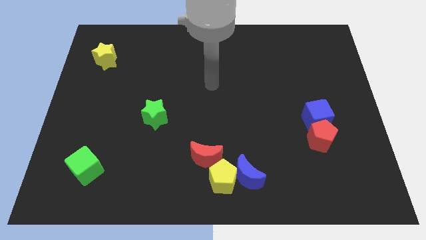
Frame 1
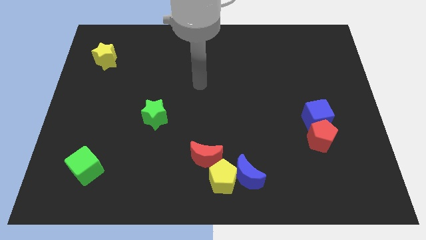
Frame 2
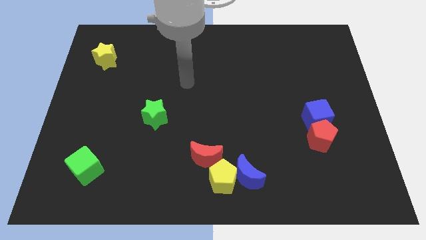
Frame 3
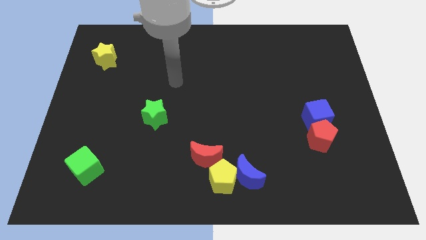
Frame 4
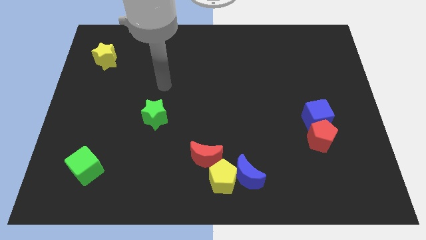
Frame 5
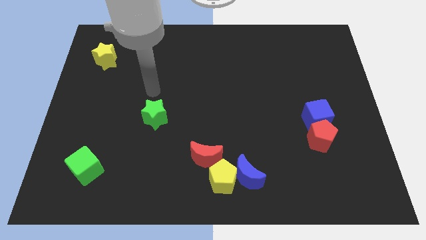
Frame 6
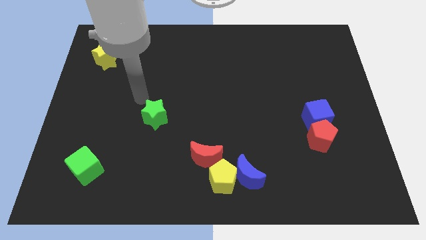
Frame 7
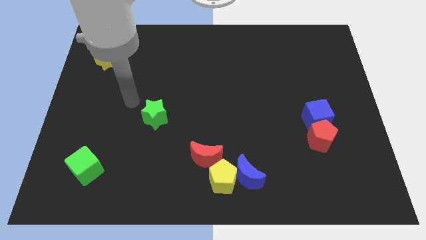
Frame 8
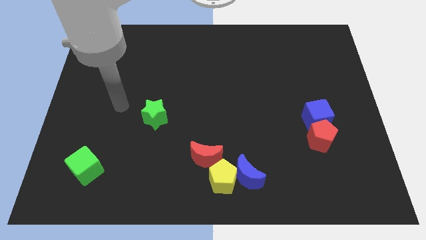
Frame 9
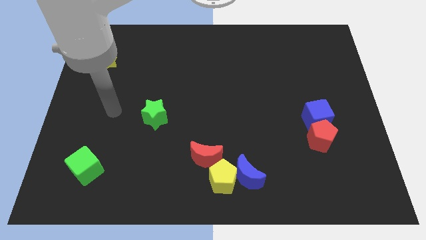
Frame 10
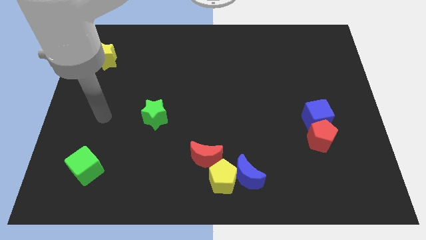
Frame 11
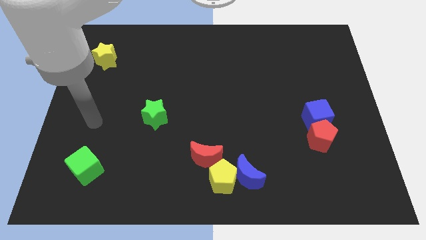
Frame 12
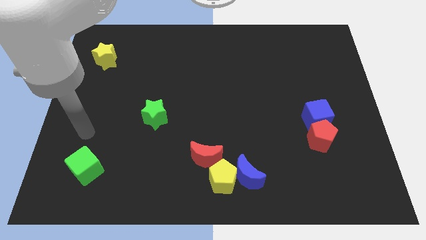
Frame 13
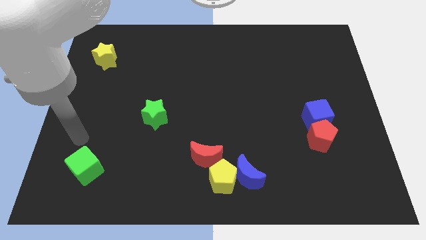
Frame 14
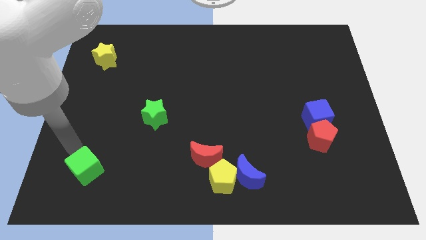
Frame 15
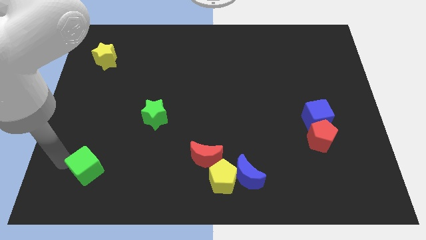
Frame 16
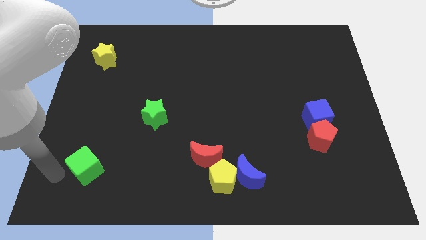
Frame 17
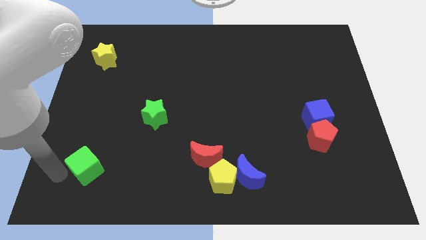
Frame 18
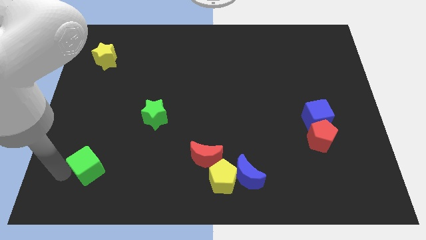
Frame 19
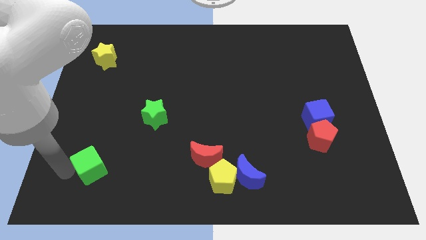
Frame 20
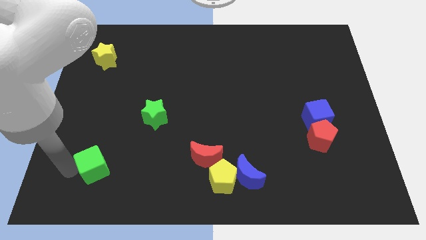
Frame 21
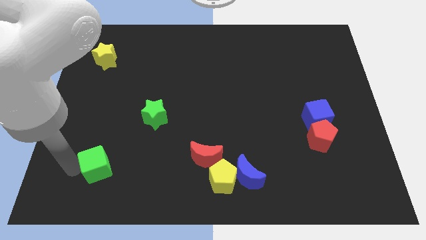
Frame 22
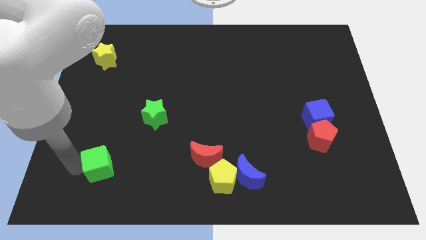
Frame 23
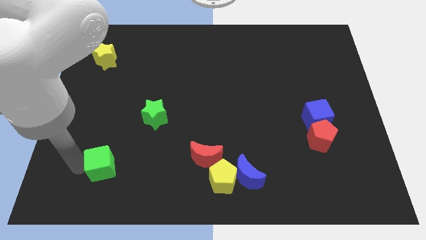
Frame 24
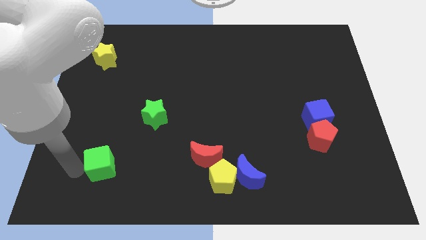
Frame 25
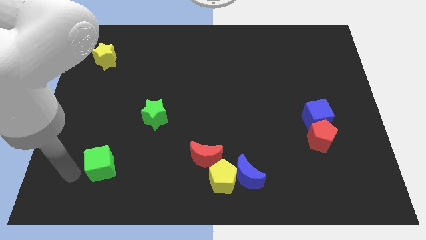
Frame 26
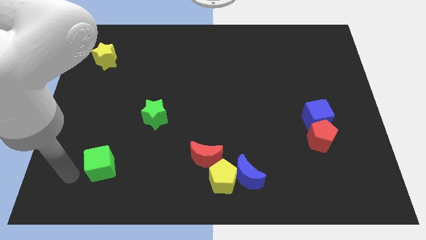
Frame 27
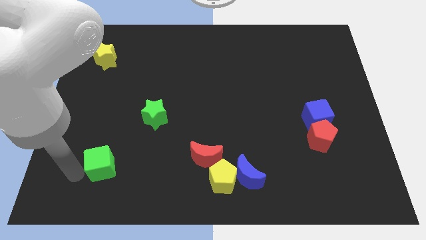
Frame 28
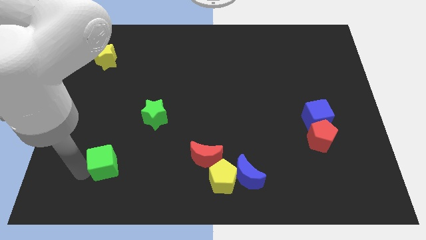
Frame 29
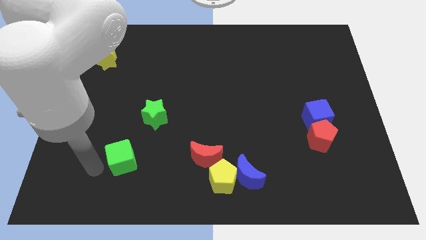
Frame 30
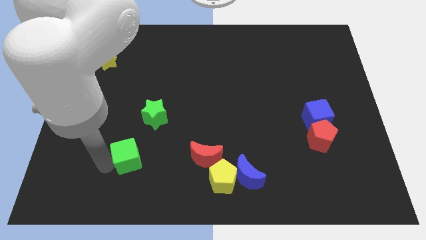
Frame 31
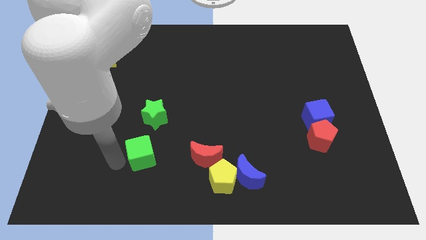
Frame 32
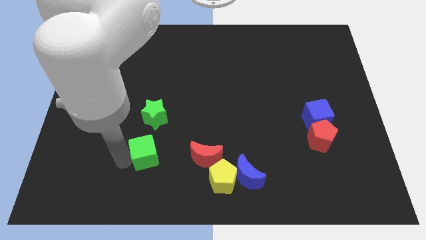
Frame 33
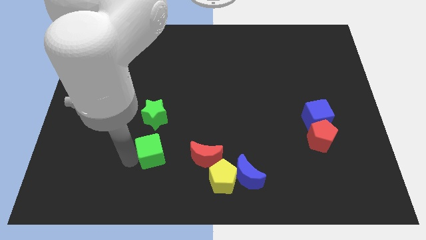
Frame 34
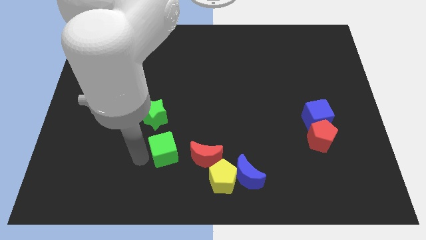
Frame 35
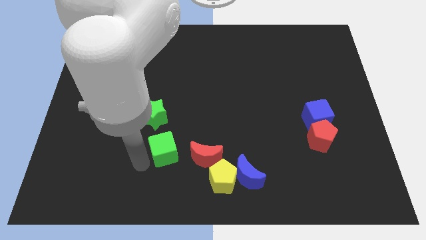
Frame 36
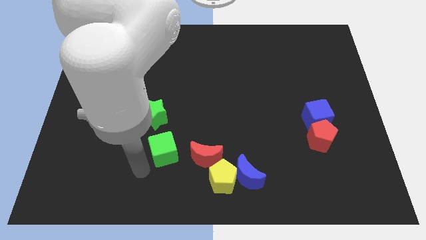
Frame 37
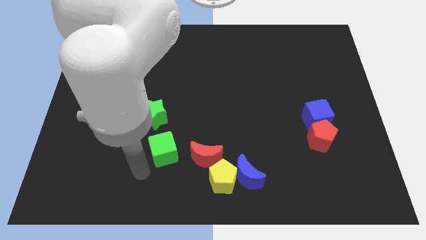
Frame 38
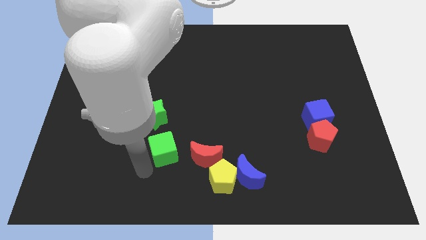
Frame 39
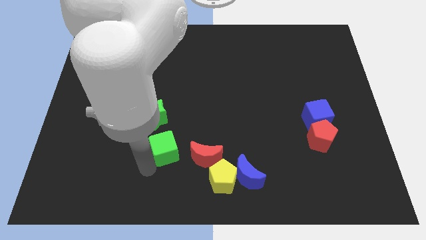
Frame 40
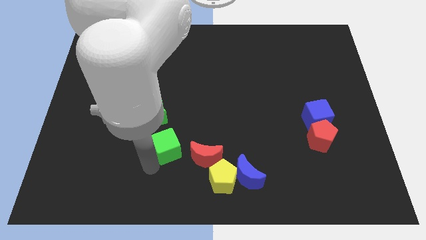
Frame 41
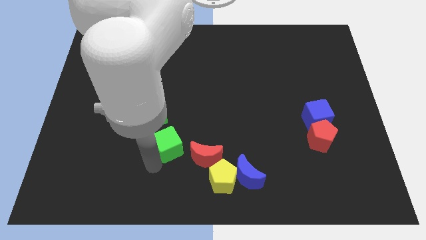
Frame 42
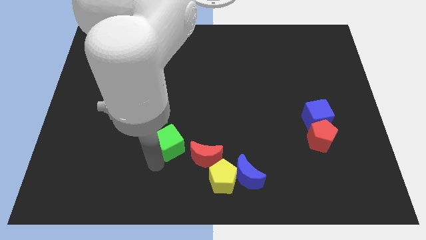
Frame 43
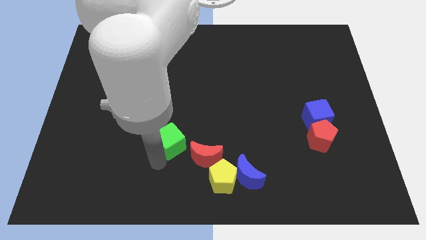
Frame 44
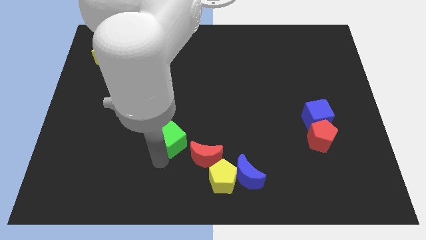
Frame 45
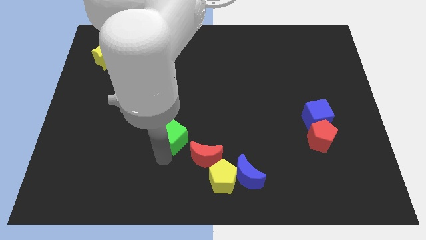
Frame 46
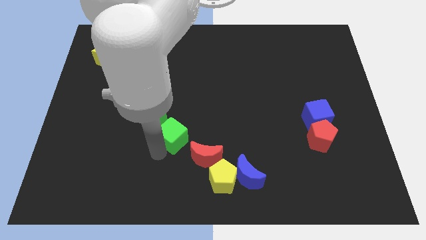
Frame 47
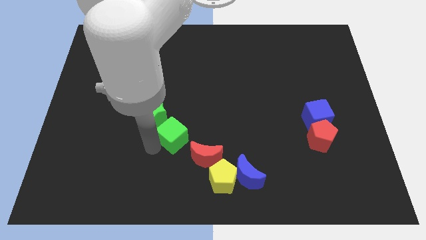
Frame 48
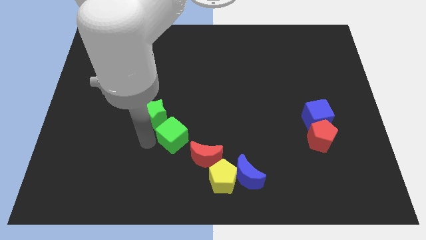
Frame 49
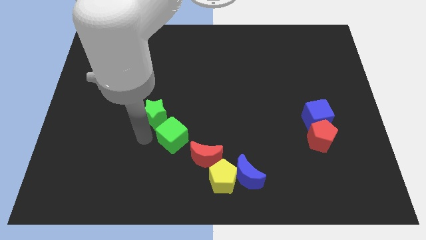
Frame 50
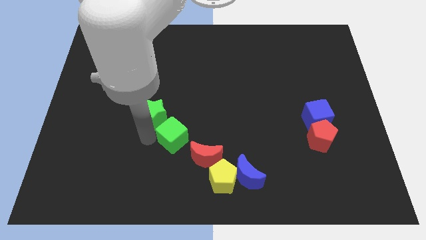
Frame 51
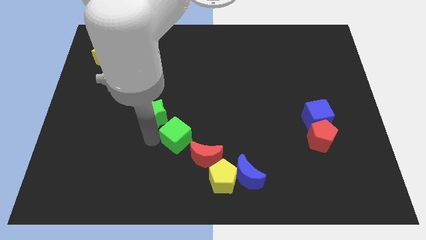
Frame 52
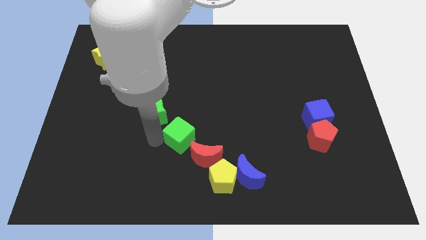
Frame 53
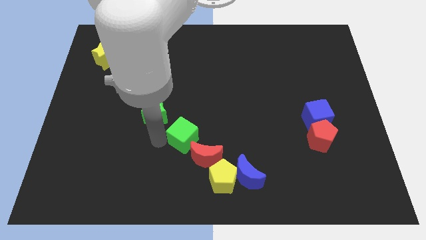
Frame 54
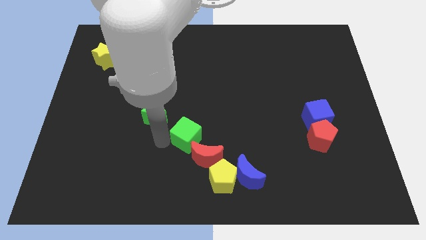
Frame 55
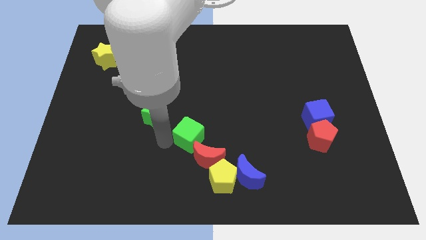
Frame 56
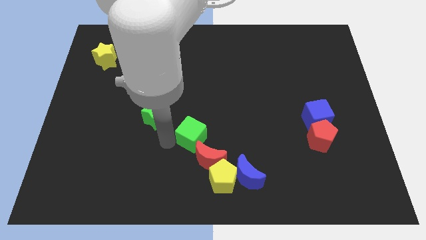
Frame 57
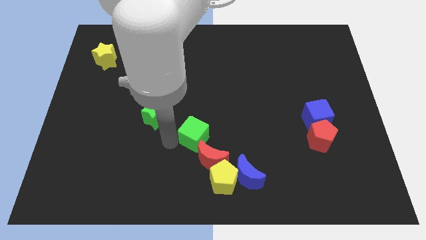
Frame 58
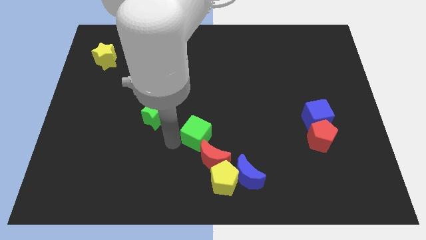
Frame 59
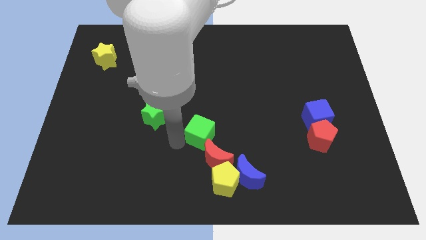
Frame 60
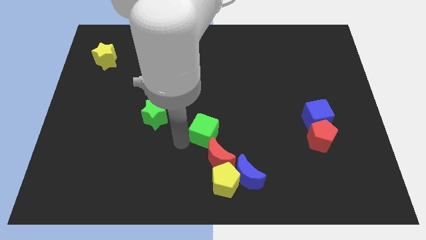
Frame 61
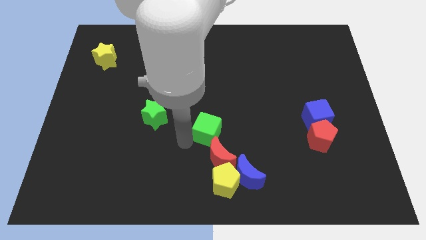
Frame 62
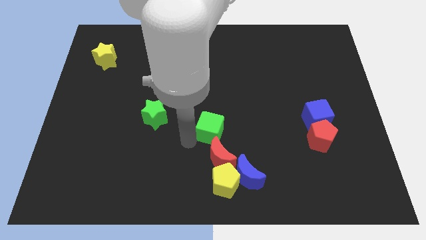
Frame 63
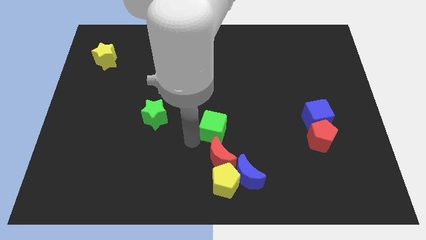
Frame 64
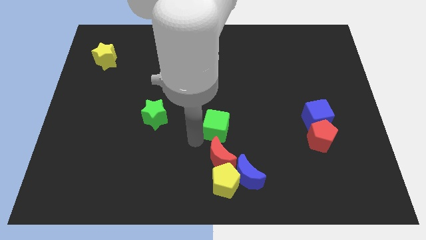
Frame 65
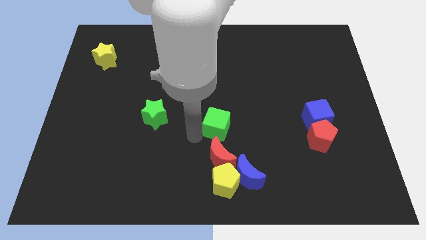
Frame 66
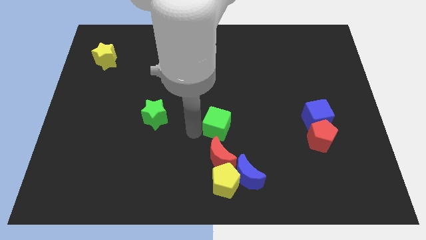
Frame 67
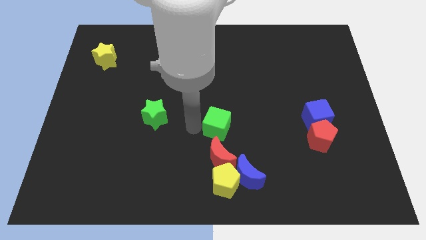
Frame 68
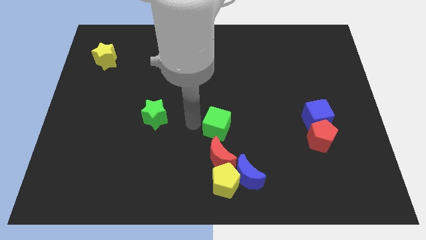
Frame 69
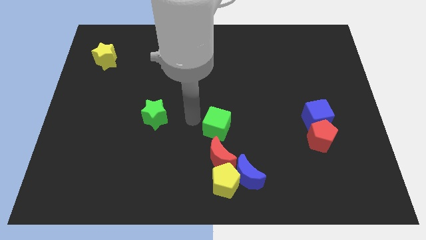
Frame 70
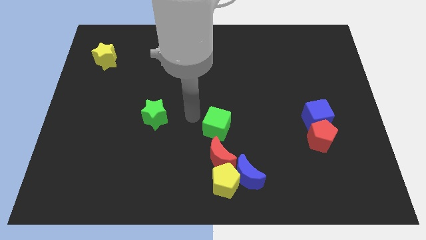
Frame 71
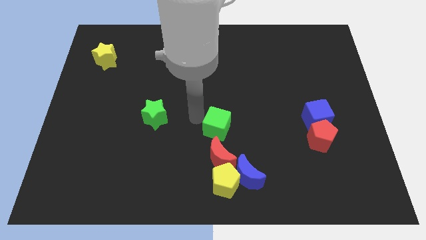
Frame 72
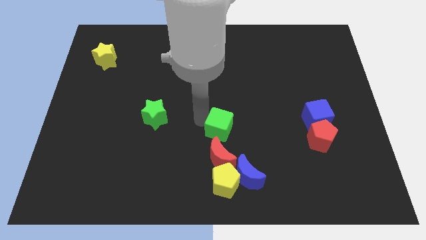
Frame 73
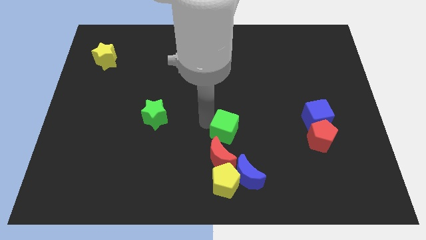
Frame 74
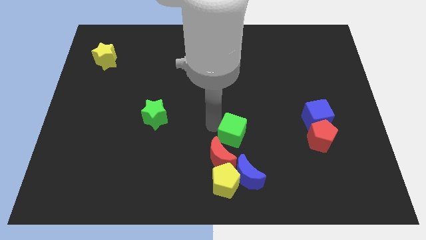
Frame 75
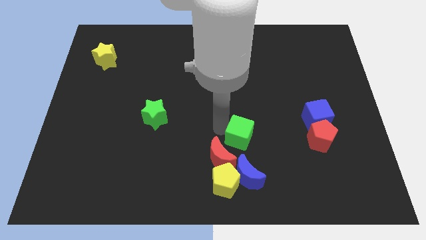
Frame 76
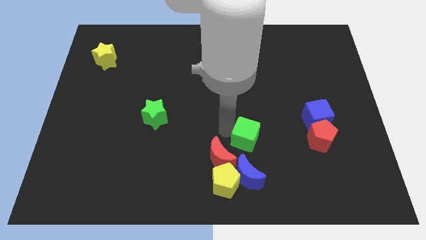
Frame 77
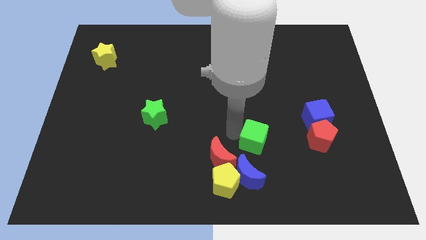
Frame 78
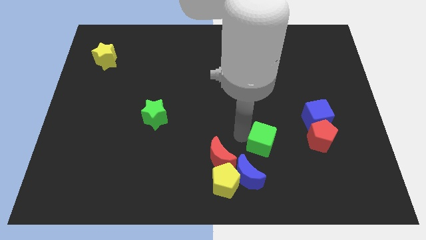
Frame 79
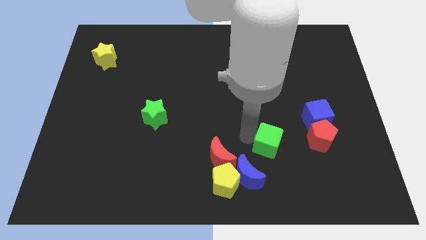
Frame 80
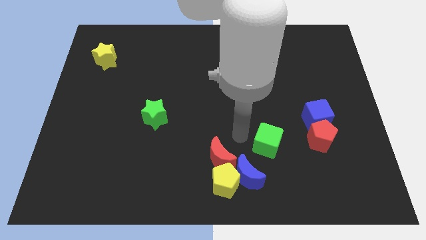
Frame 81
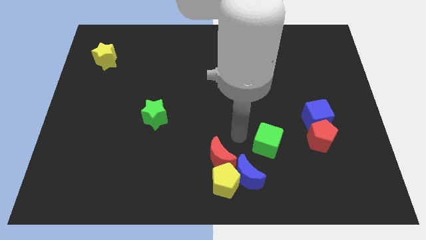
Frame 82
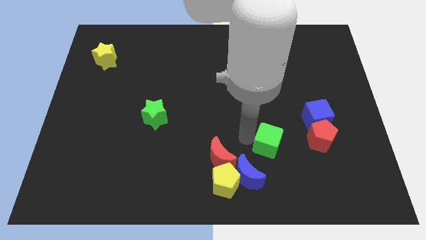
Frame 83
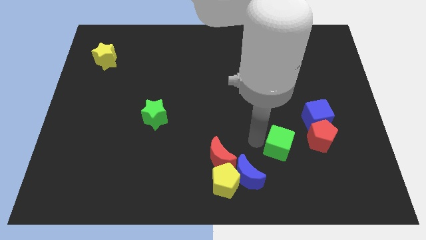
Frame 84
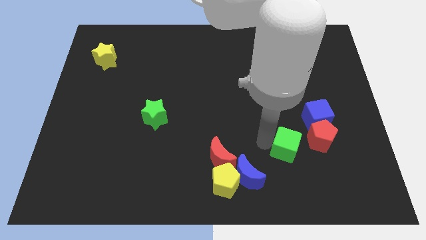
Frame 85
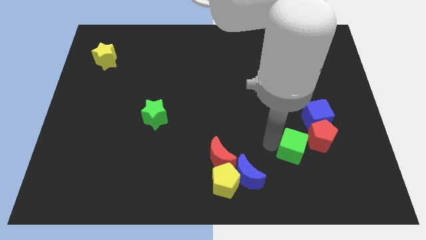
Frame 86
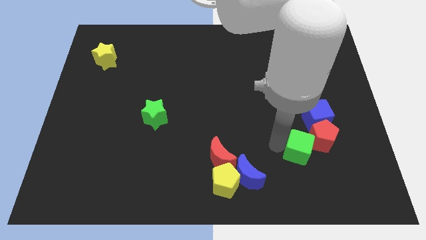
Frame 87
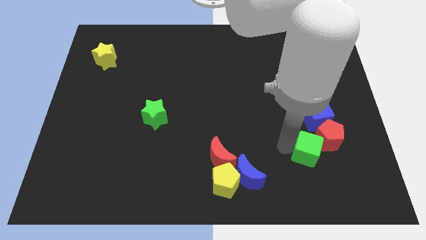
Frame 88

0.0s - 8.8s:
move the green cube to the bottom of the blue cube
